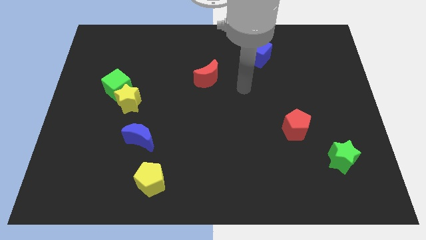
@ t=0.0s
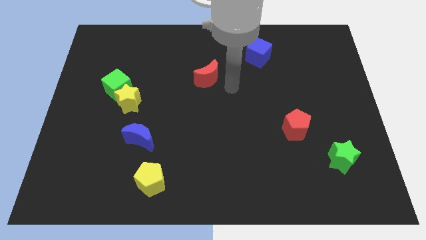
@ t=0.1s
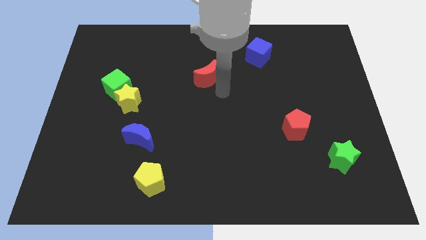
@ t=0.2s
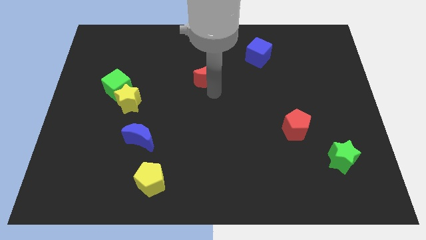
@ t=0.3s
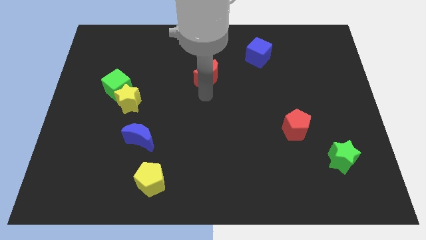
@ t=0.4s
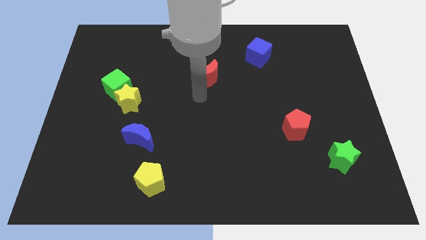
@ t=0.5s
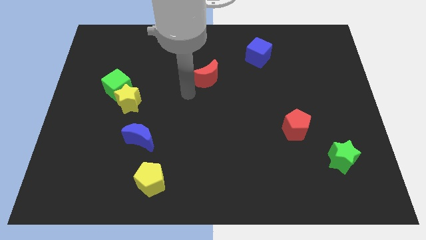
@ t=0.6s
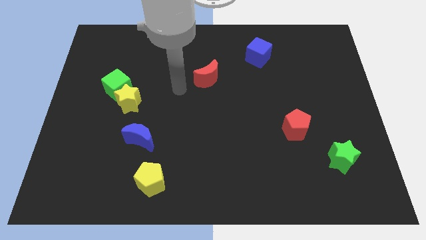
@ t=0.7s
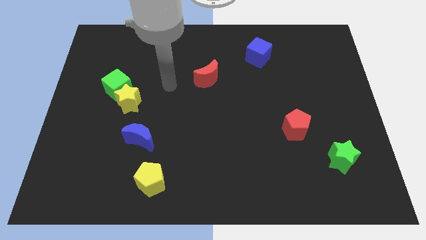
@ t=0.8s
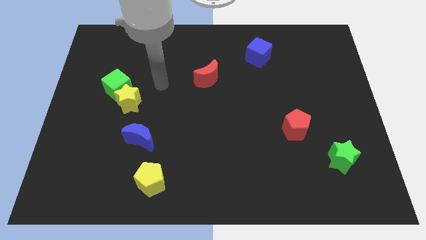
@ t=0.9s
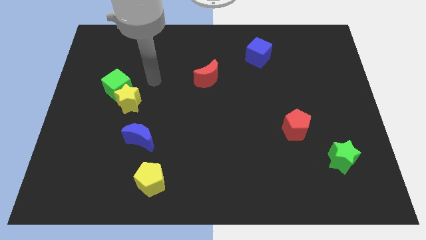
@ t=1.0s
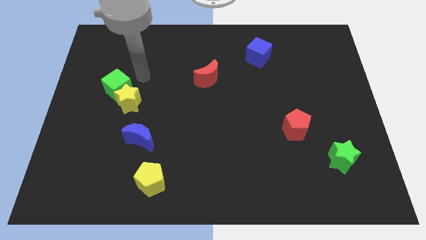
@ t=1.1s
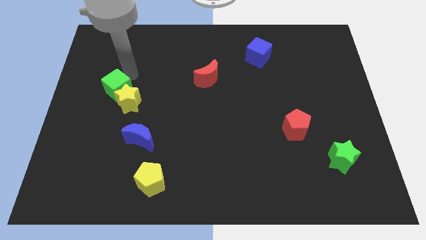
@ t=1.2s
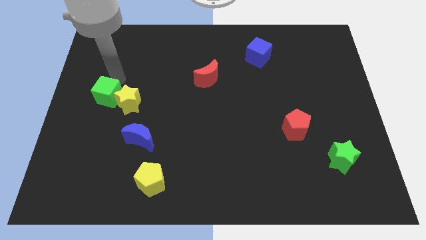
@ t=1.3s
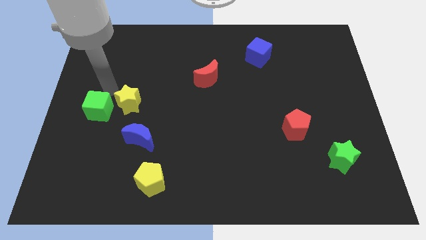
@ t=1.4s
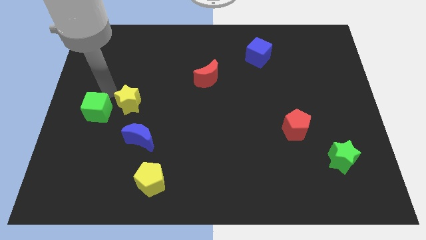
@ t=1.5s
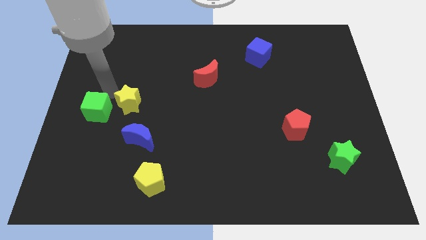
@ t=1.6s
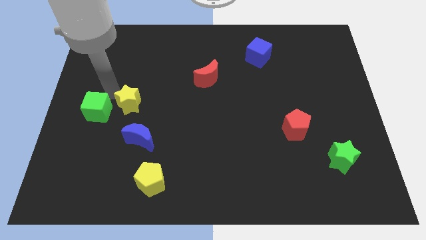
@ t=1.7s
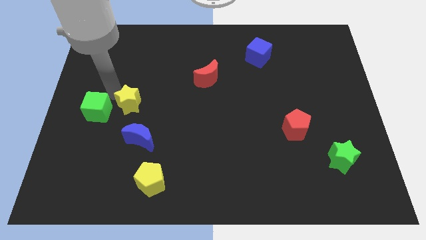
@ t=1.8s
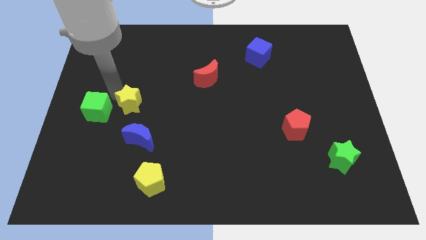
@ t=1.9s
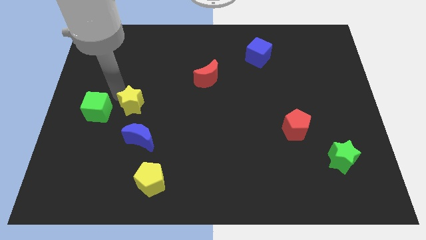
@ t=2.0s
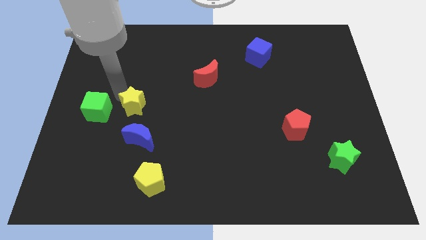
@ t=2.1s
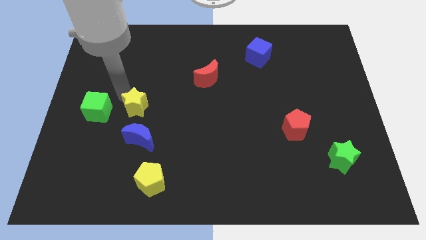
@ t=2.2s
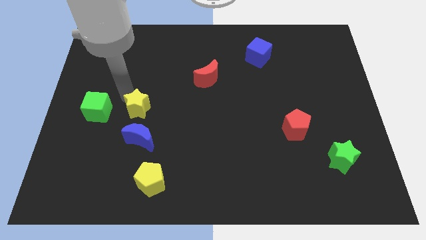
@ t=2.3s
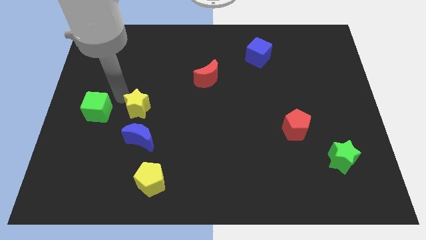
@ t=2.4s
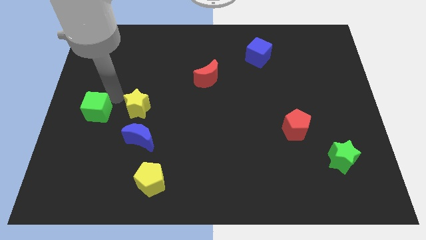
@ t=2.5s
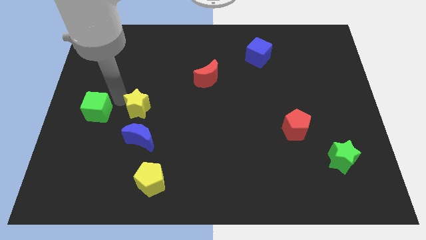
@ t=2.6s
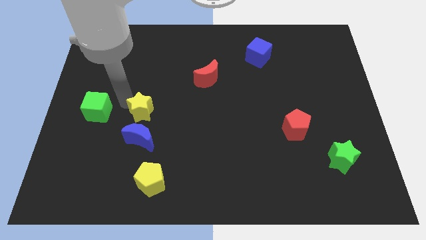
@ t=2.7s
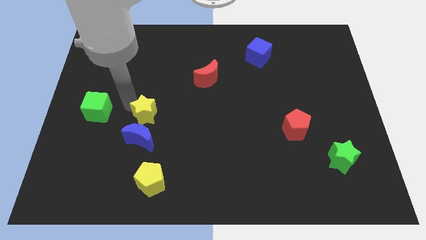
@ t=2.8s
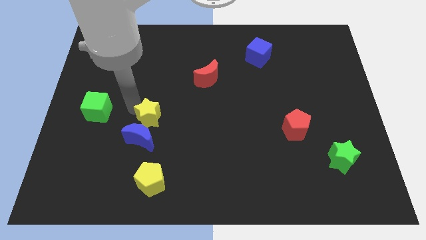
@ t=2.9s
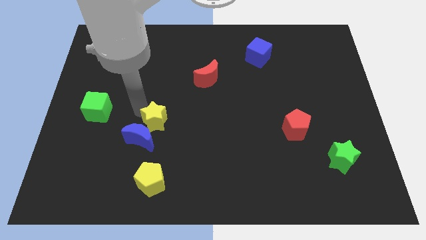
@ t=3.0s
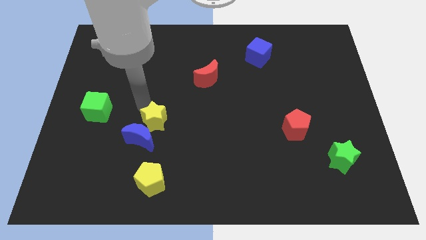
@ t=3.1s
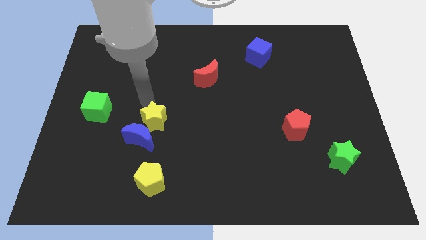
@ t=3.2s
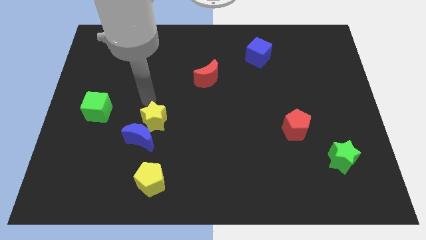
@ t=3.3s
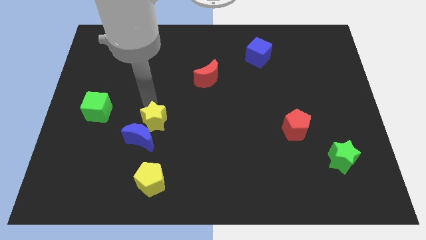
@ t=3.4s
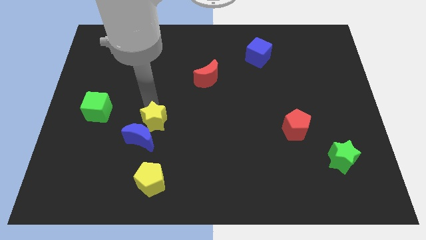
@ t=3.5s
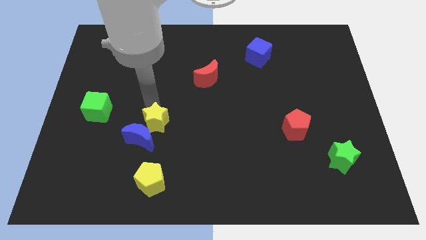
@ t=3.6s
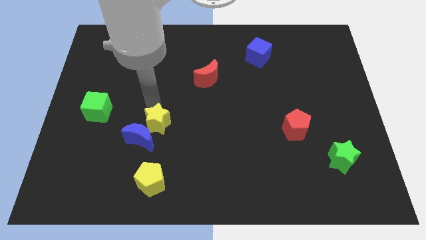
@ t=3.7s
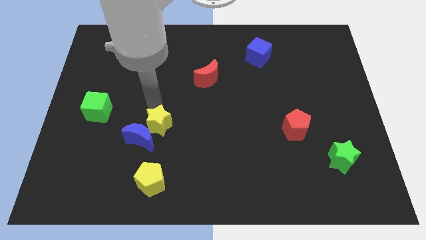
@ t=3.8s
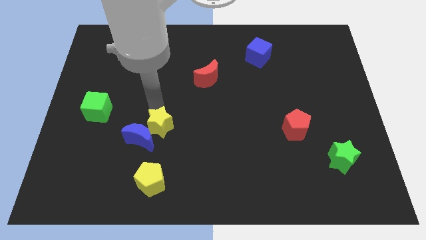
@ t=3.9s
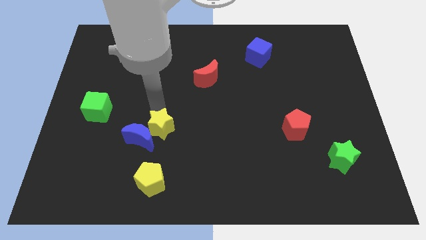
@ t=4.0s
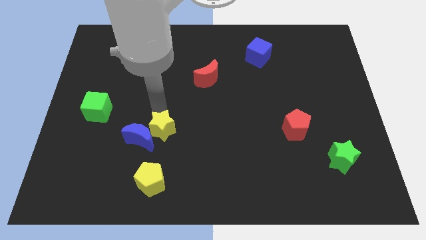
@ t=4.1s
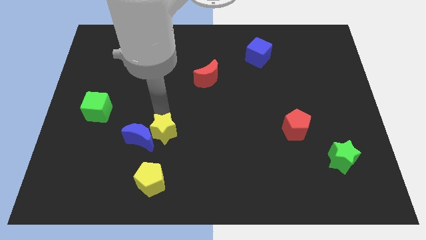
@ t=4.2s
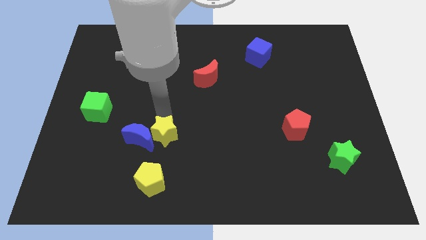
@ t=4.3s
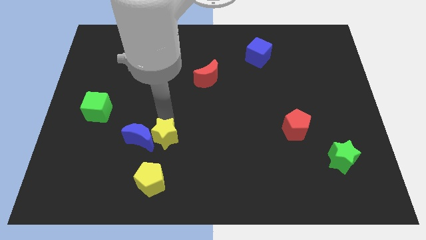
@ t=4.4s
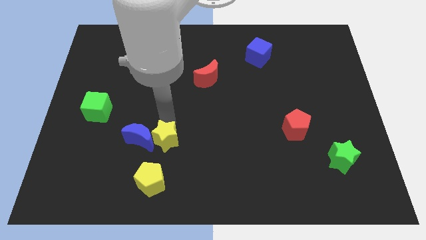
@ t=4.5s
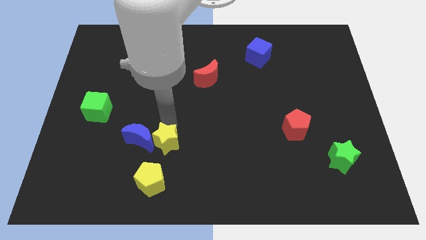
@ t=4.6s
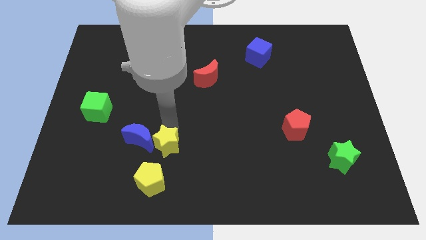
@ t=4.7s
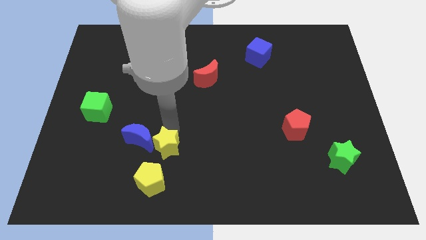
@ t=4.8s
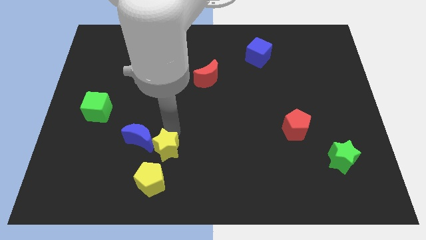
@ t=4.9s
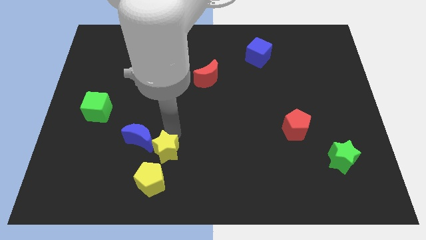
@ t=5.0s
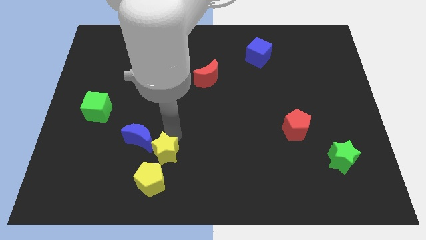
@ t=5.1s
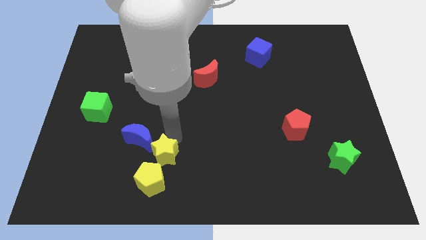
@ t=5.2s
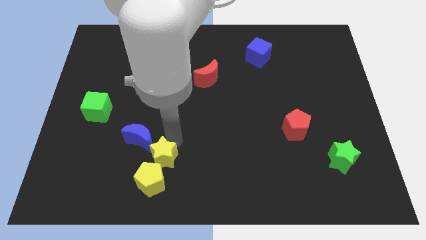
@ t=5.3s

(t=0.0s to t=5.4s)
slide the yellow star next to the yellow pentagon

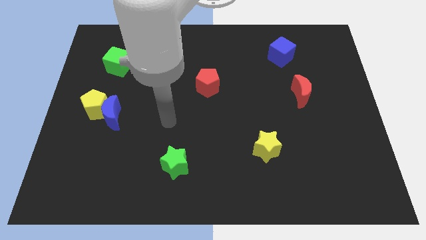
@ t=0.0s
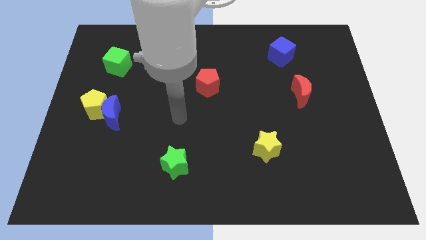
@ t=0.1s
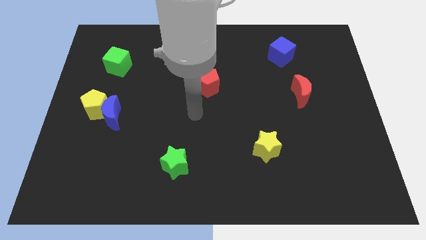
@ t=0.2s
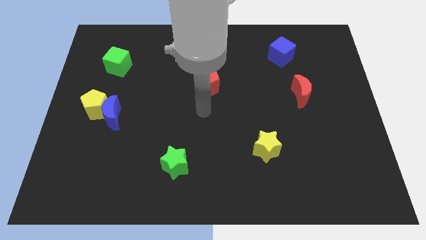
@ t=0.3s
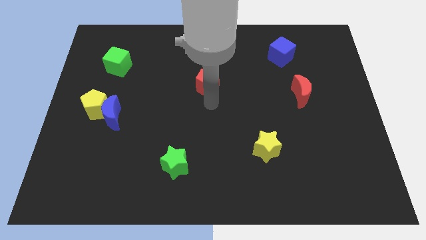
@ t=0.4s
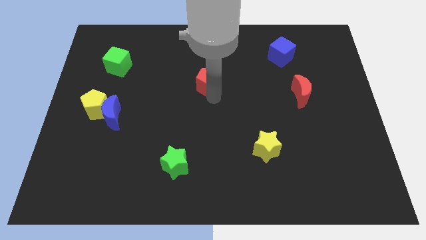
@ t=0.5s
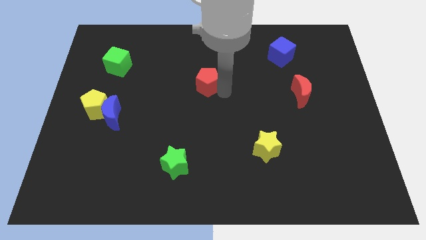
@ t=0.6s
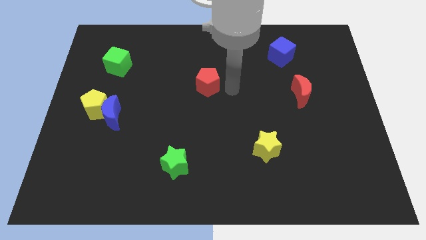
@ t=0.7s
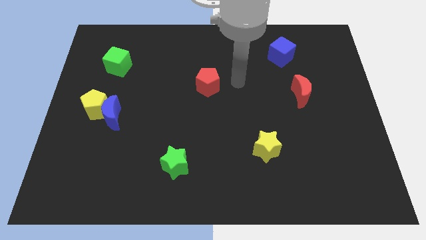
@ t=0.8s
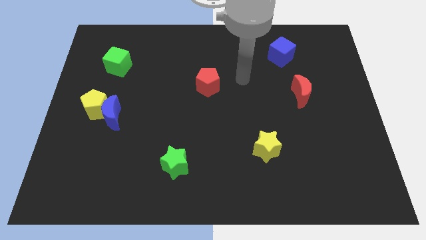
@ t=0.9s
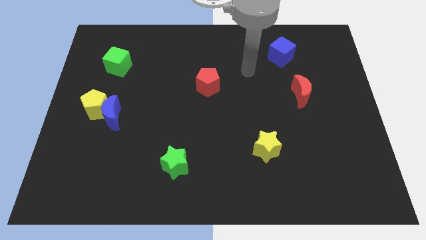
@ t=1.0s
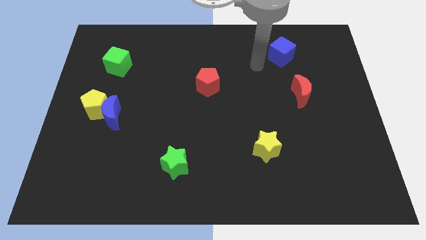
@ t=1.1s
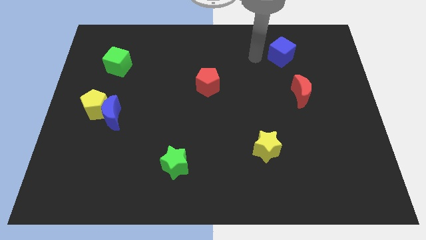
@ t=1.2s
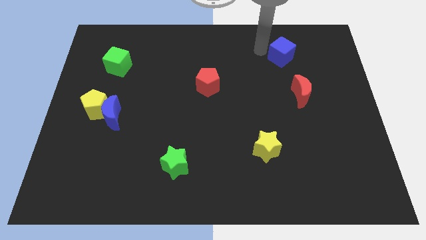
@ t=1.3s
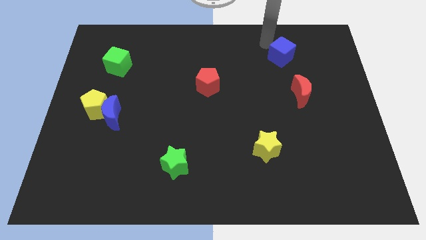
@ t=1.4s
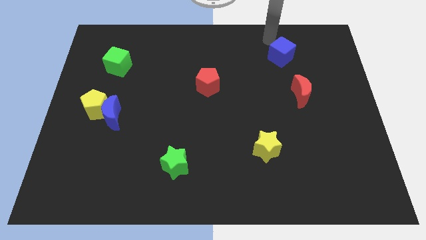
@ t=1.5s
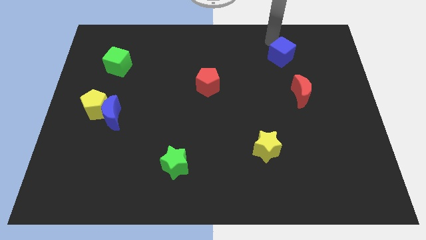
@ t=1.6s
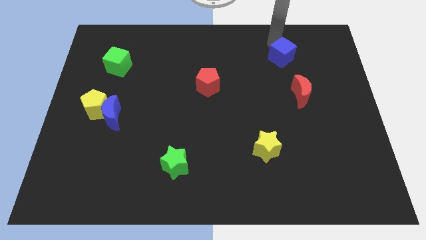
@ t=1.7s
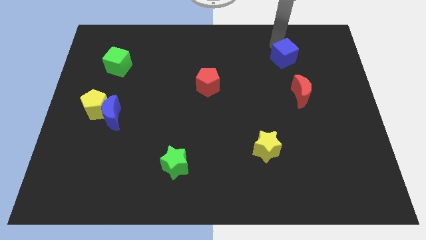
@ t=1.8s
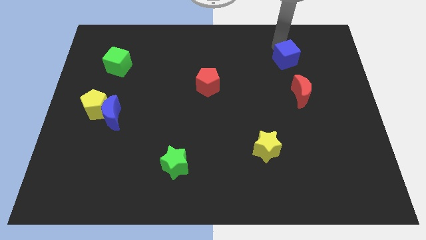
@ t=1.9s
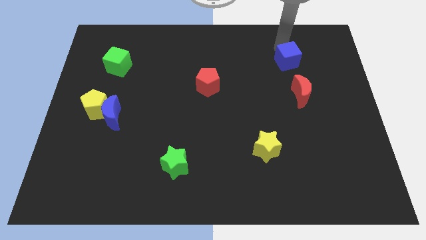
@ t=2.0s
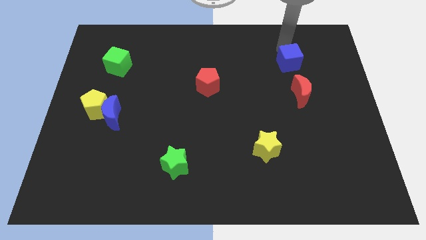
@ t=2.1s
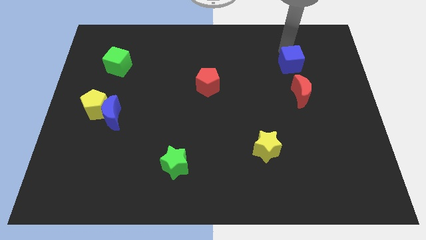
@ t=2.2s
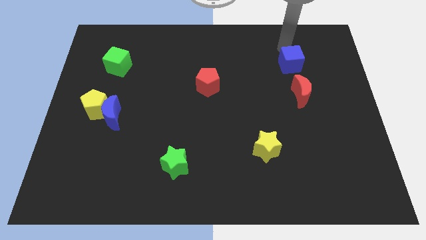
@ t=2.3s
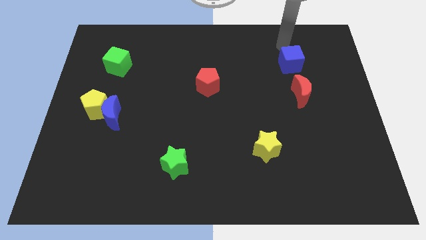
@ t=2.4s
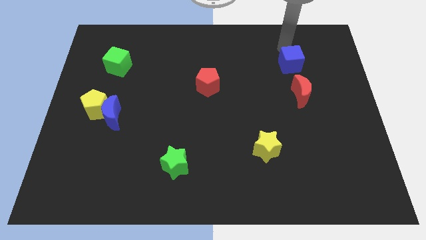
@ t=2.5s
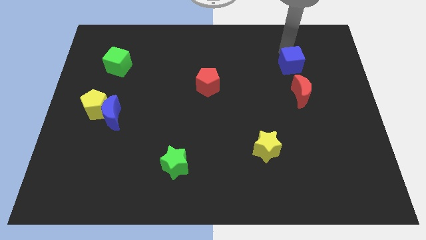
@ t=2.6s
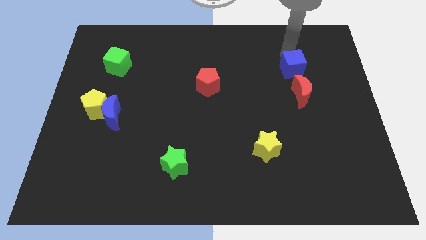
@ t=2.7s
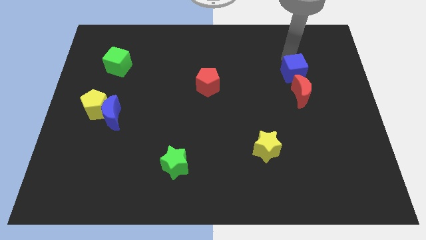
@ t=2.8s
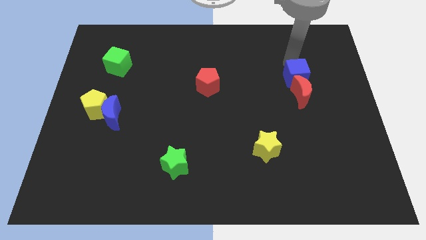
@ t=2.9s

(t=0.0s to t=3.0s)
move the blue cube next to the red moon
